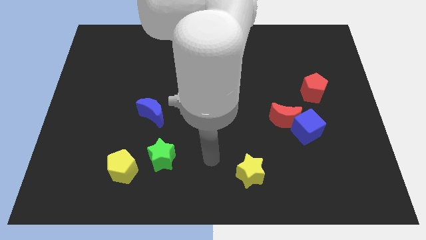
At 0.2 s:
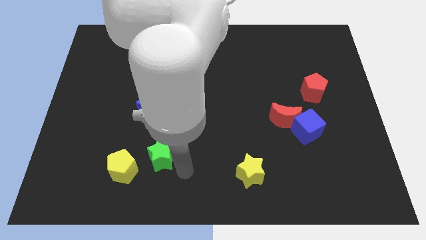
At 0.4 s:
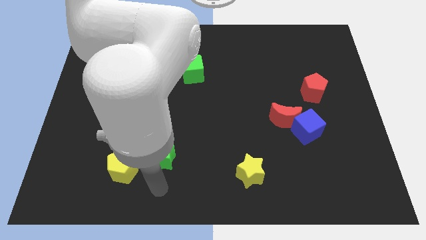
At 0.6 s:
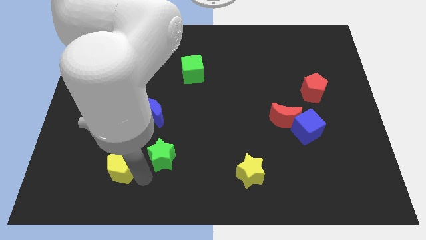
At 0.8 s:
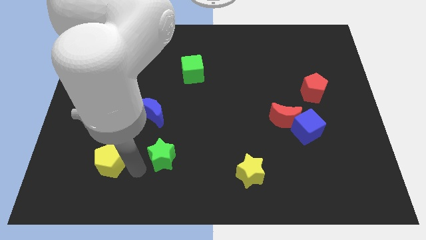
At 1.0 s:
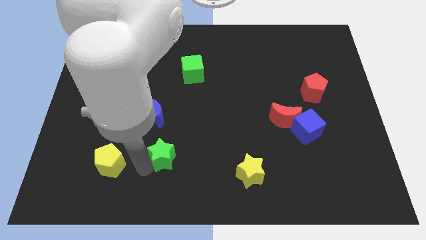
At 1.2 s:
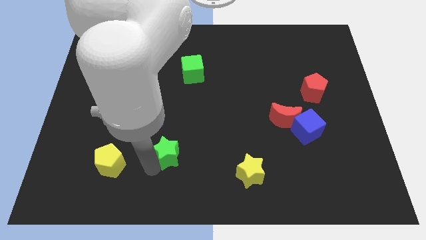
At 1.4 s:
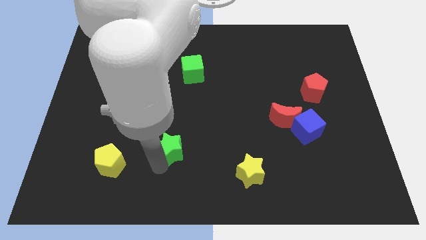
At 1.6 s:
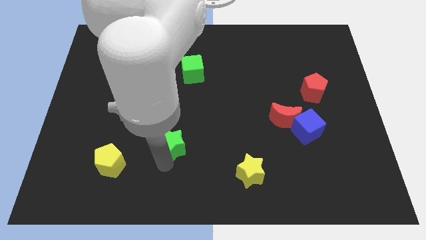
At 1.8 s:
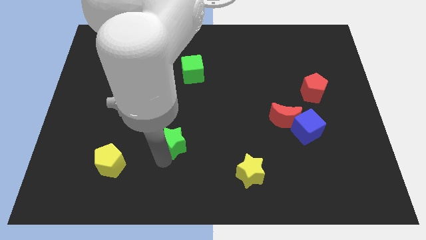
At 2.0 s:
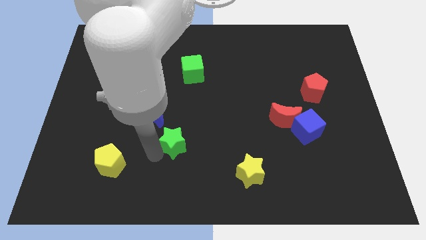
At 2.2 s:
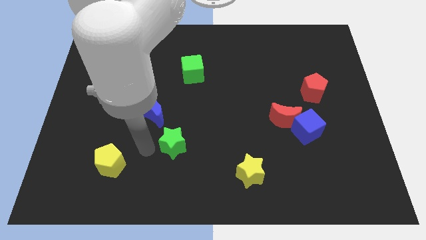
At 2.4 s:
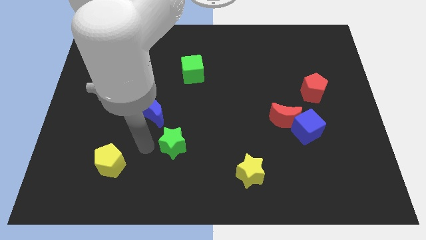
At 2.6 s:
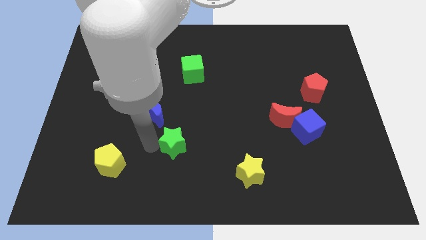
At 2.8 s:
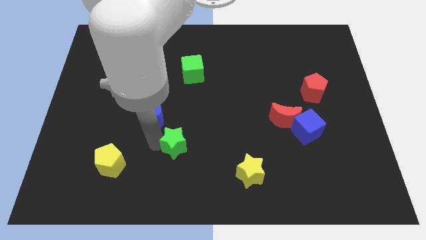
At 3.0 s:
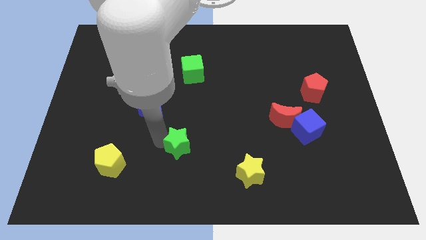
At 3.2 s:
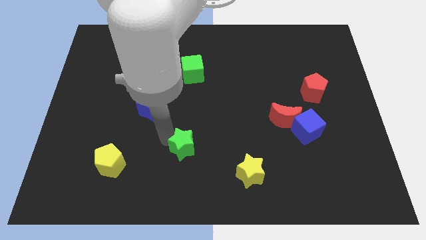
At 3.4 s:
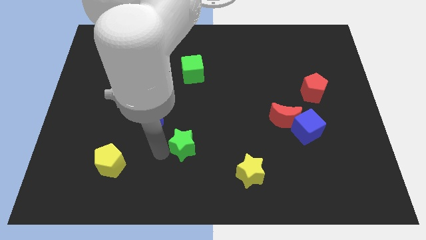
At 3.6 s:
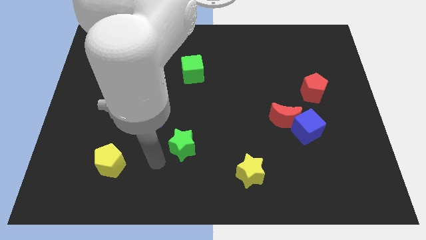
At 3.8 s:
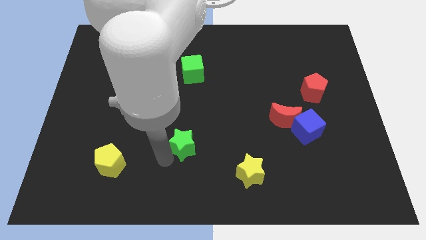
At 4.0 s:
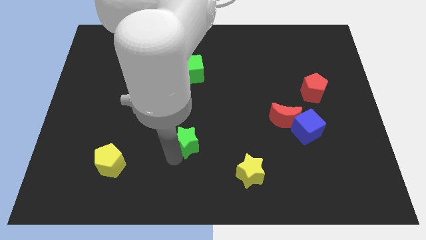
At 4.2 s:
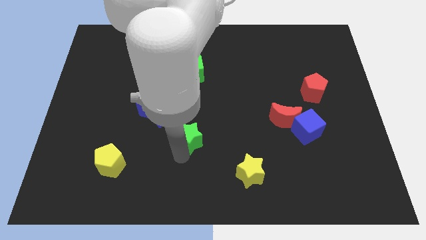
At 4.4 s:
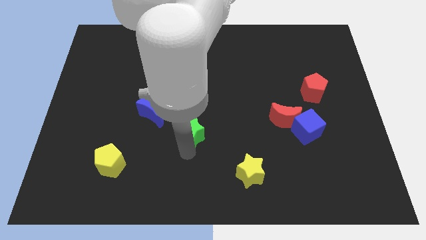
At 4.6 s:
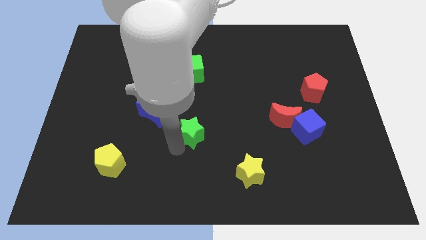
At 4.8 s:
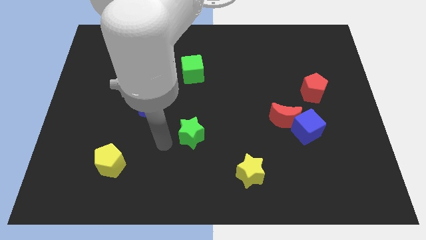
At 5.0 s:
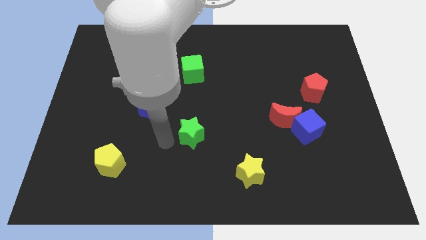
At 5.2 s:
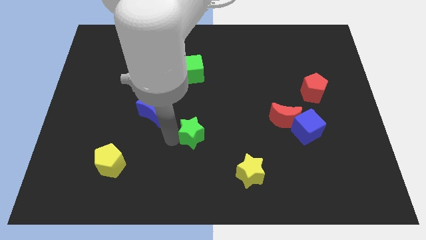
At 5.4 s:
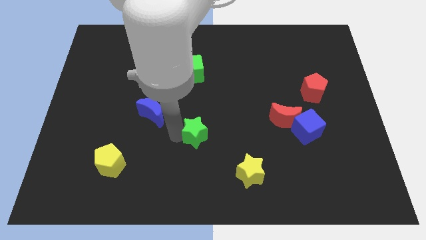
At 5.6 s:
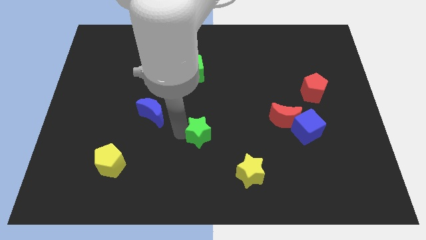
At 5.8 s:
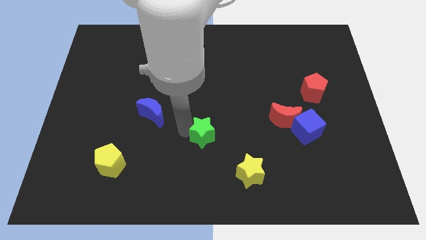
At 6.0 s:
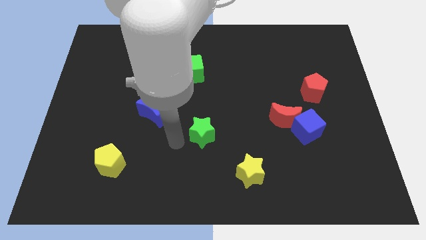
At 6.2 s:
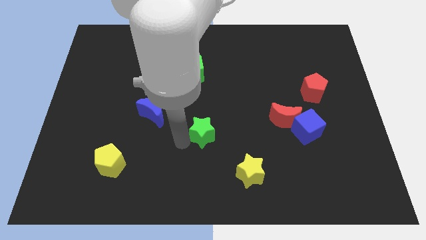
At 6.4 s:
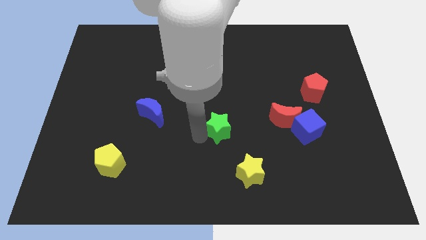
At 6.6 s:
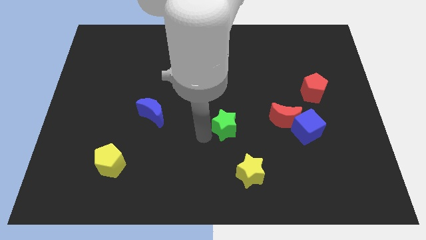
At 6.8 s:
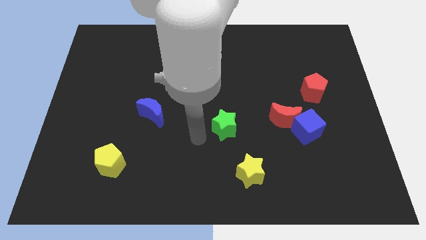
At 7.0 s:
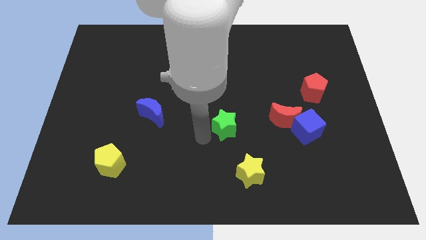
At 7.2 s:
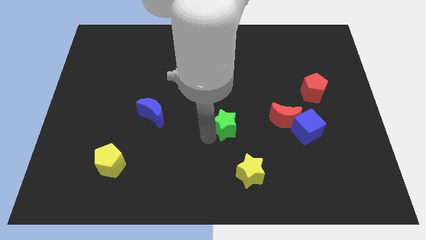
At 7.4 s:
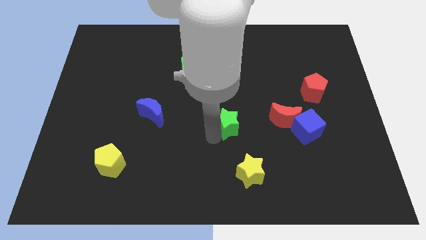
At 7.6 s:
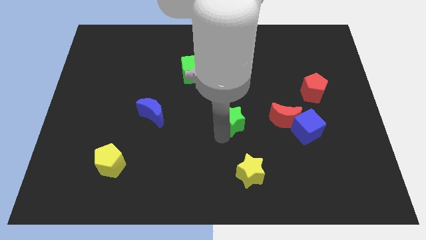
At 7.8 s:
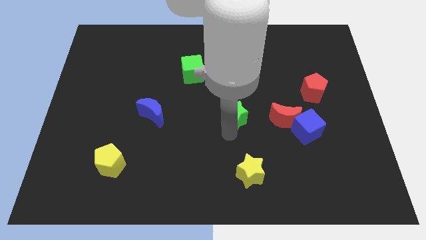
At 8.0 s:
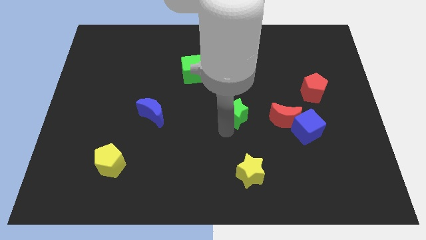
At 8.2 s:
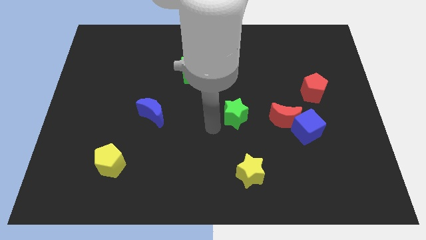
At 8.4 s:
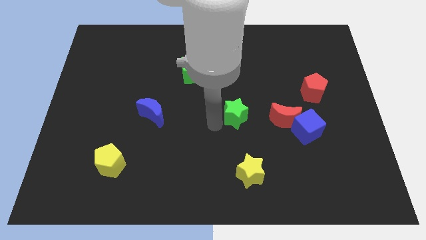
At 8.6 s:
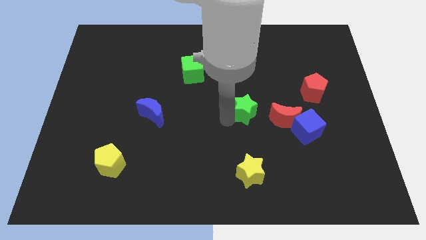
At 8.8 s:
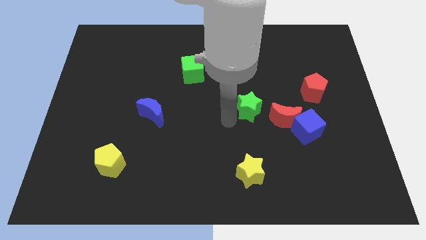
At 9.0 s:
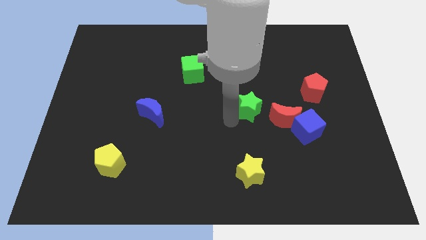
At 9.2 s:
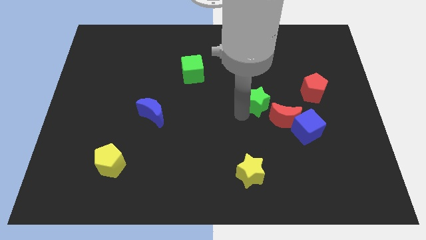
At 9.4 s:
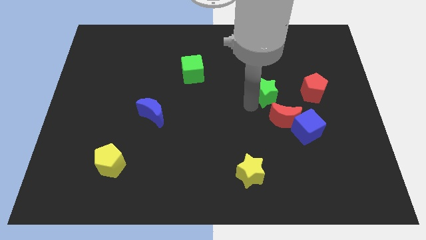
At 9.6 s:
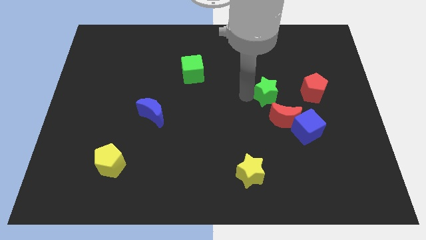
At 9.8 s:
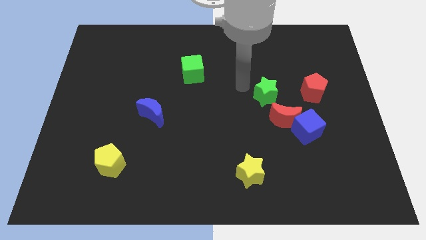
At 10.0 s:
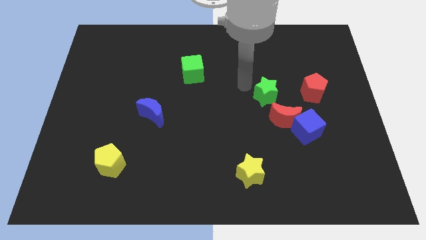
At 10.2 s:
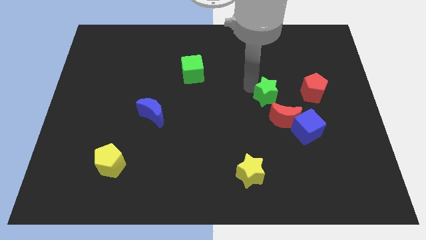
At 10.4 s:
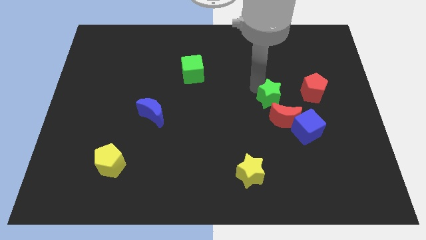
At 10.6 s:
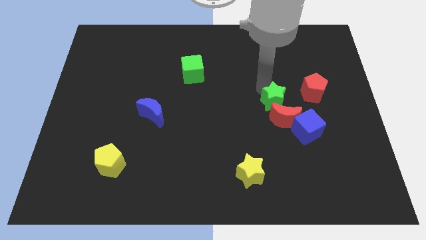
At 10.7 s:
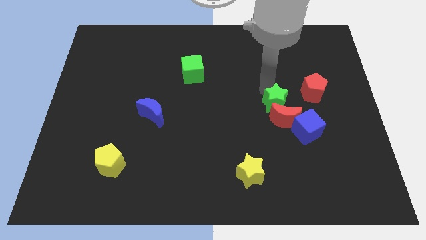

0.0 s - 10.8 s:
push the green star diagonally down and to the left of the red pentagon

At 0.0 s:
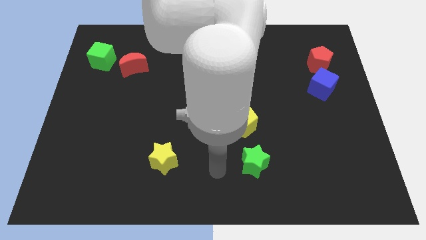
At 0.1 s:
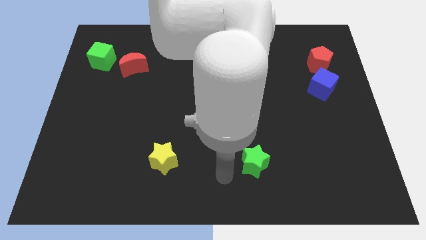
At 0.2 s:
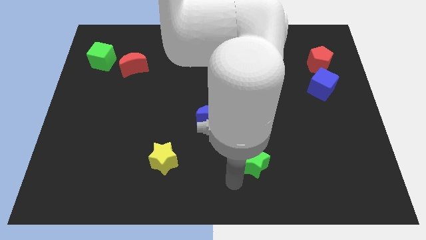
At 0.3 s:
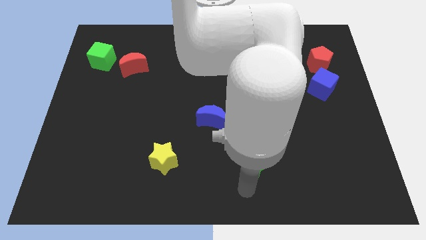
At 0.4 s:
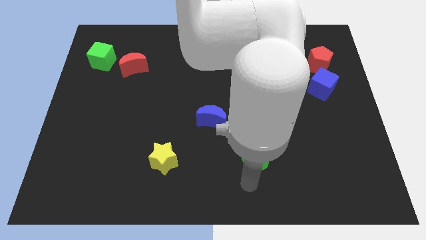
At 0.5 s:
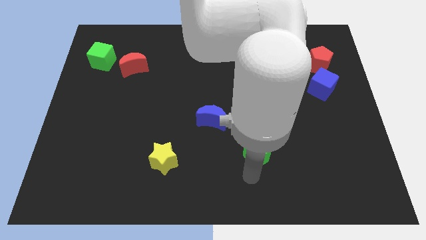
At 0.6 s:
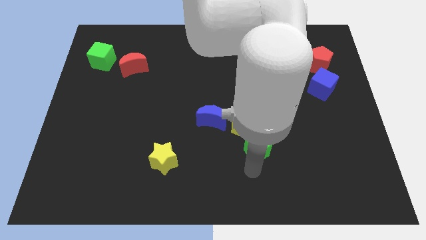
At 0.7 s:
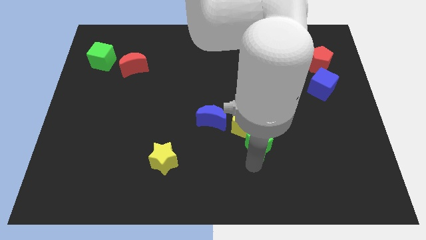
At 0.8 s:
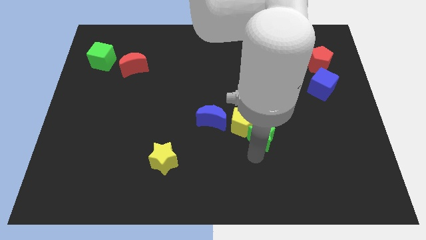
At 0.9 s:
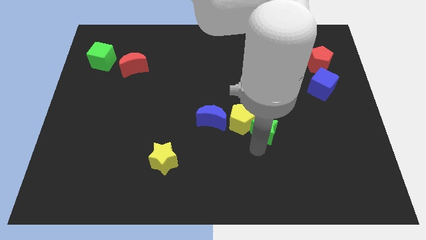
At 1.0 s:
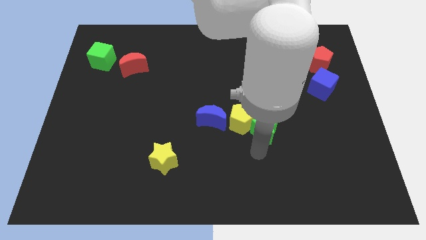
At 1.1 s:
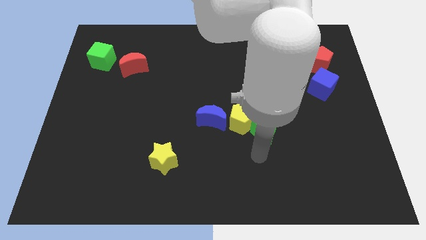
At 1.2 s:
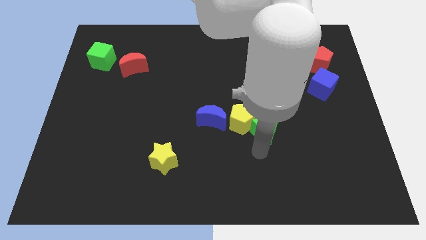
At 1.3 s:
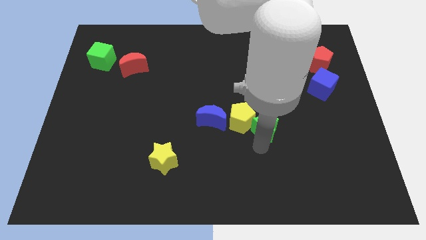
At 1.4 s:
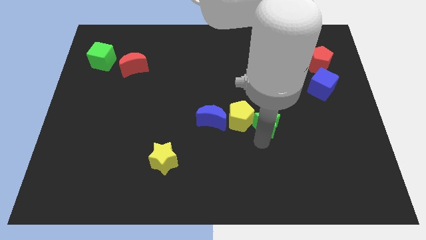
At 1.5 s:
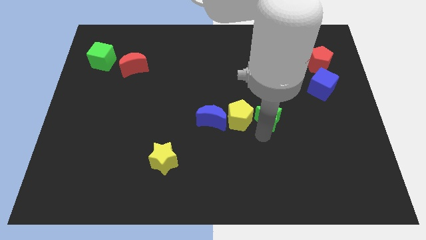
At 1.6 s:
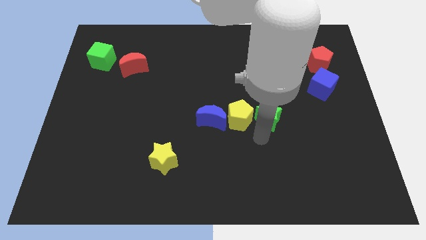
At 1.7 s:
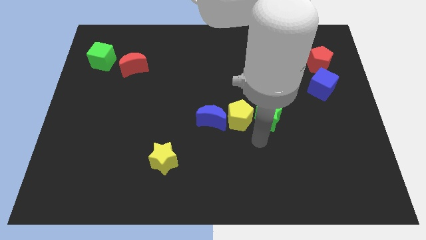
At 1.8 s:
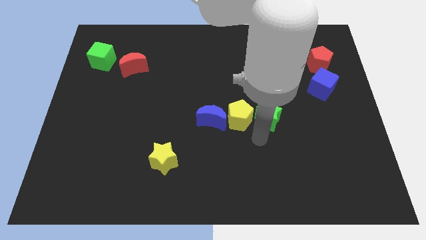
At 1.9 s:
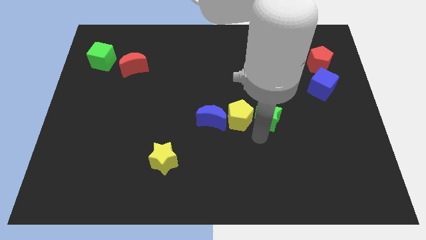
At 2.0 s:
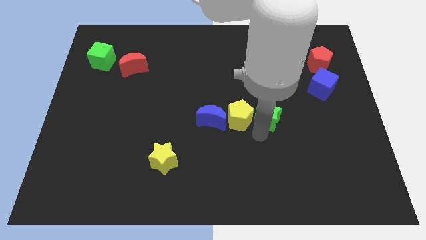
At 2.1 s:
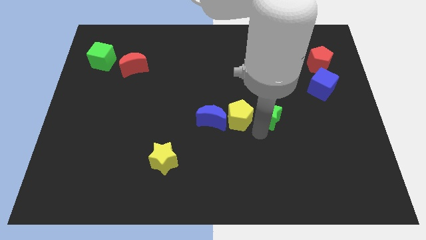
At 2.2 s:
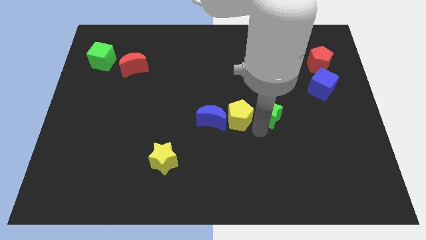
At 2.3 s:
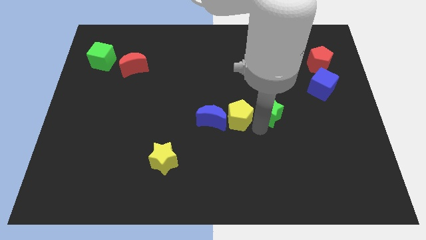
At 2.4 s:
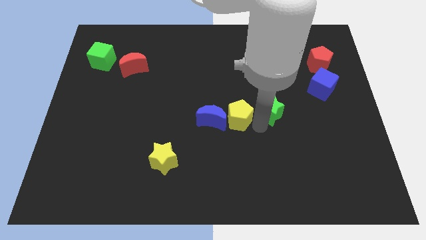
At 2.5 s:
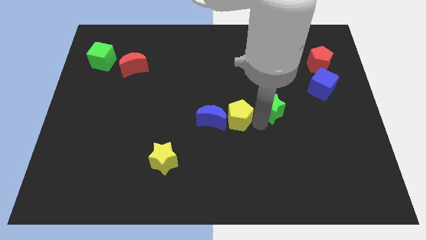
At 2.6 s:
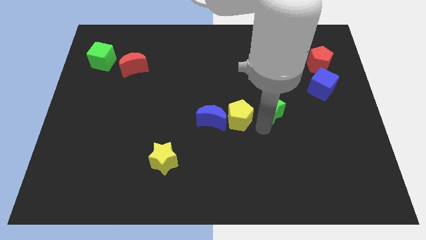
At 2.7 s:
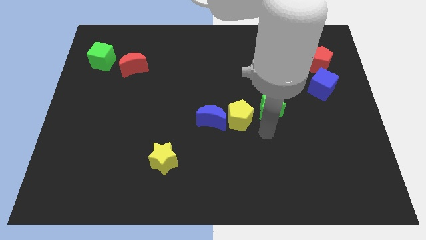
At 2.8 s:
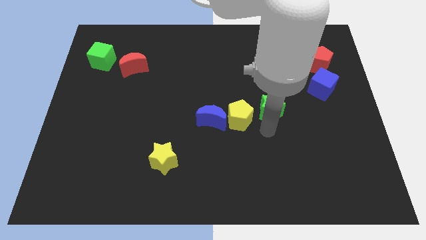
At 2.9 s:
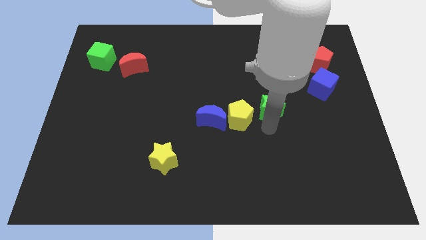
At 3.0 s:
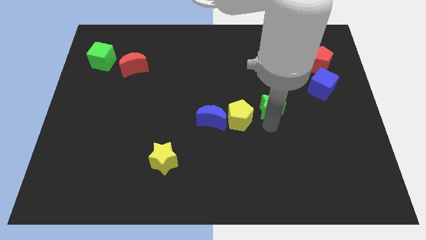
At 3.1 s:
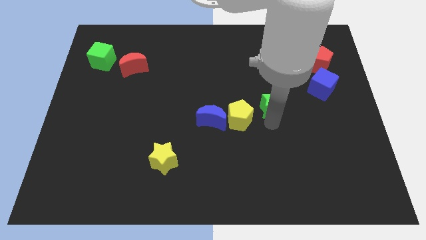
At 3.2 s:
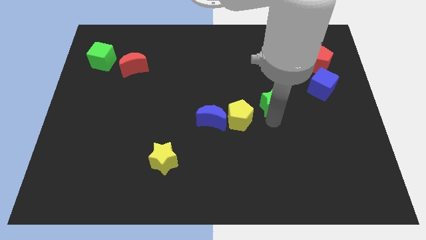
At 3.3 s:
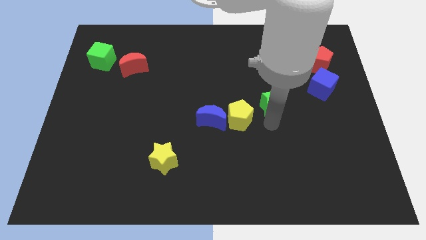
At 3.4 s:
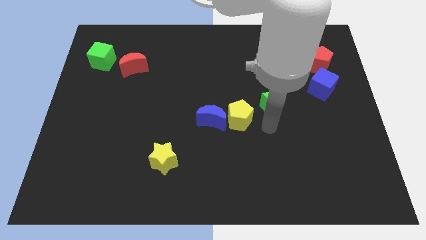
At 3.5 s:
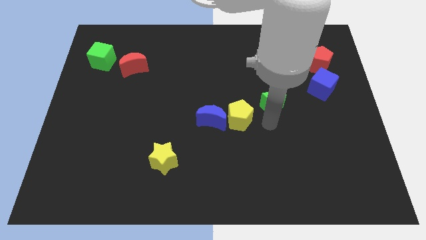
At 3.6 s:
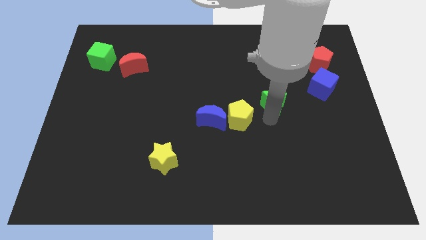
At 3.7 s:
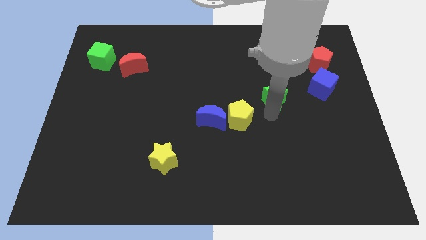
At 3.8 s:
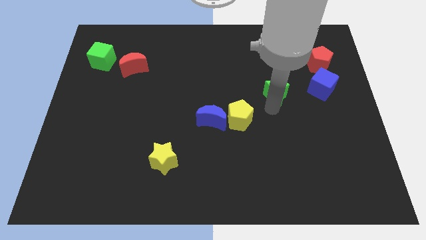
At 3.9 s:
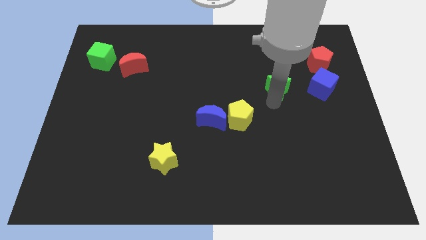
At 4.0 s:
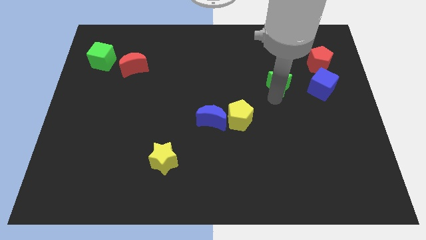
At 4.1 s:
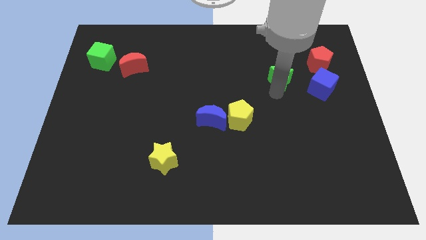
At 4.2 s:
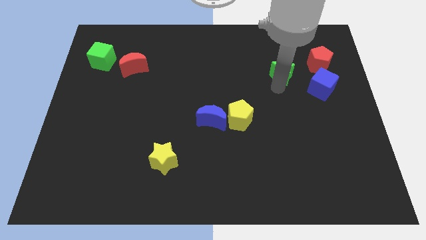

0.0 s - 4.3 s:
slide the green star to the left side of the red pentagon
